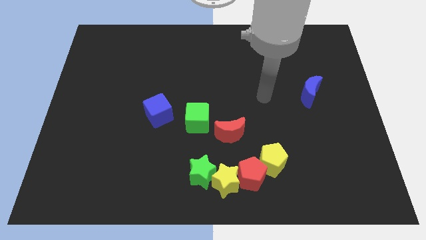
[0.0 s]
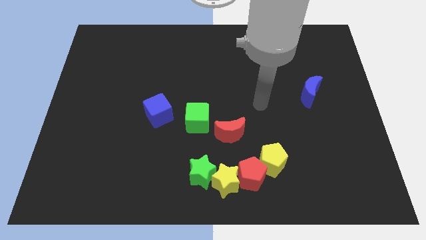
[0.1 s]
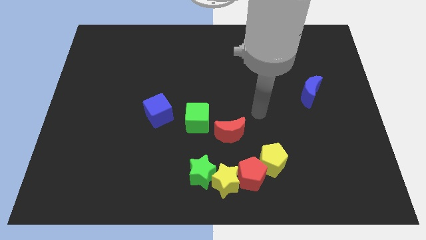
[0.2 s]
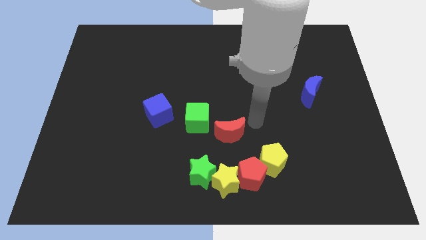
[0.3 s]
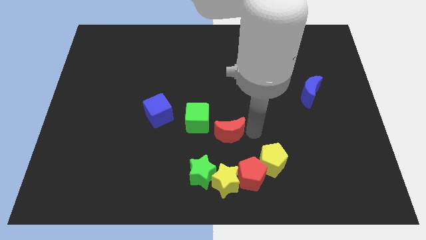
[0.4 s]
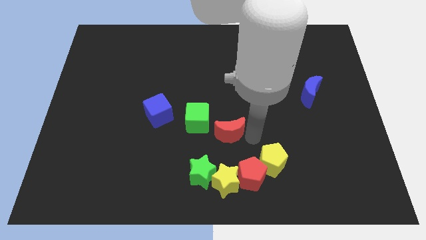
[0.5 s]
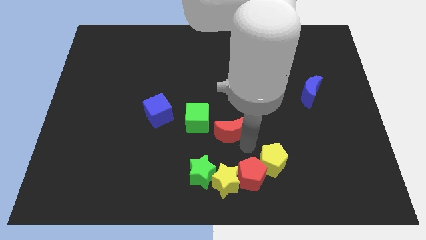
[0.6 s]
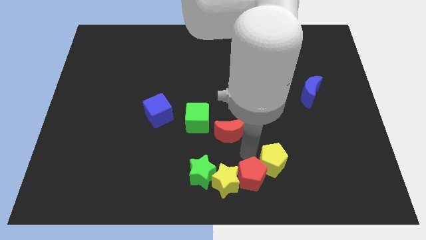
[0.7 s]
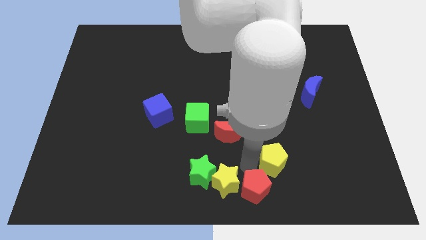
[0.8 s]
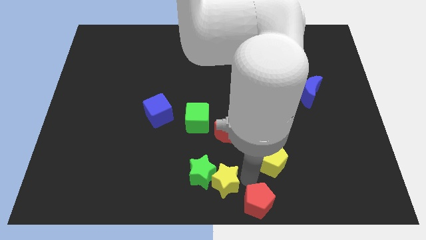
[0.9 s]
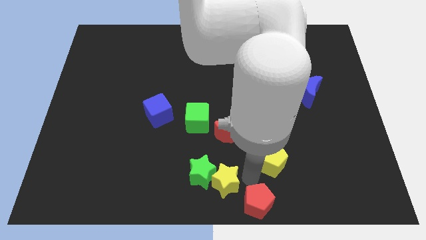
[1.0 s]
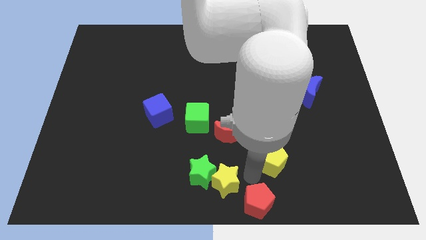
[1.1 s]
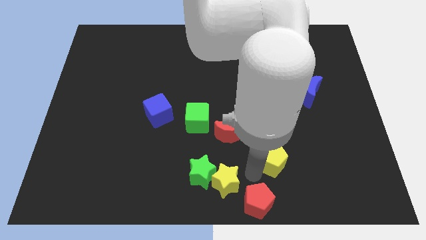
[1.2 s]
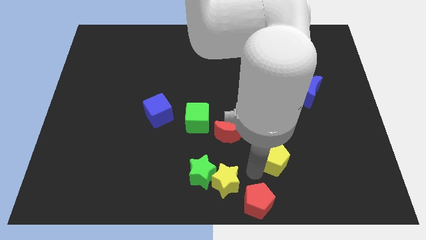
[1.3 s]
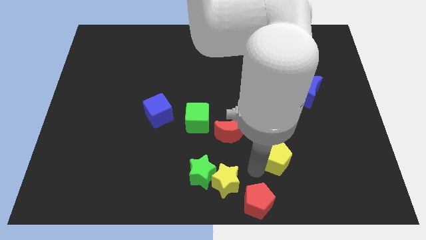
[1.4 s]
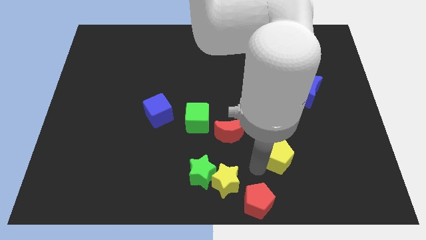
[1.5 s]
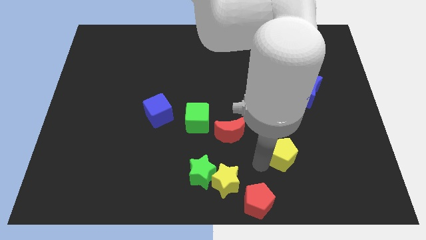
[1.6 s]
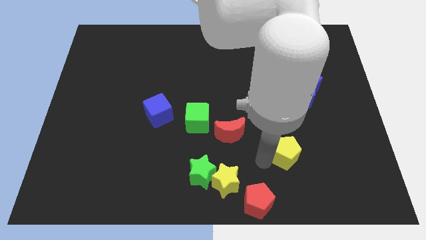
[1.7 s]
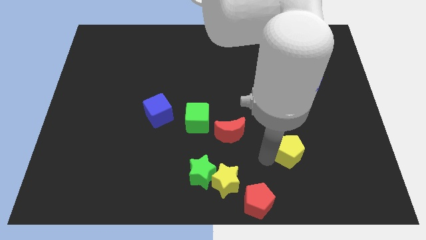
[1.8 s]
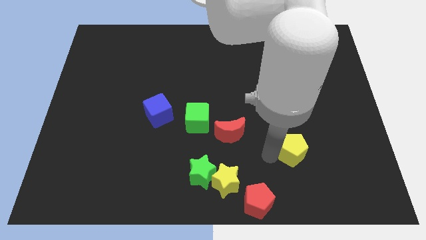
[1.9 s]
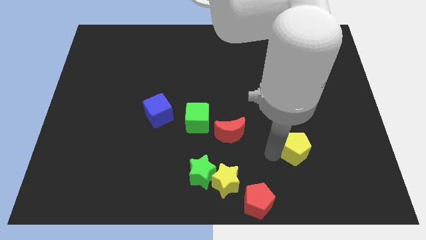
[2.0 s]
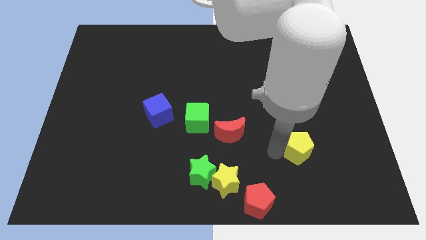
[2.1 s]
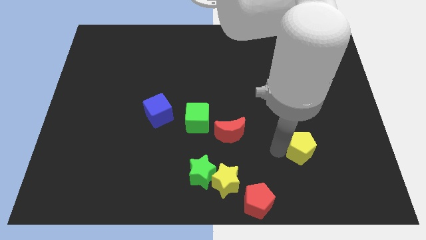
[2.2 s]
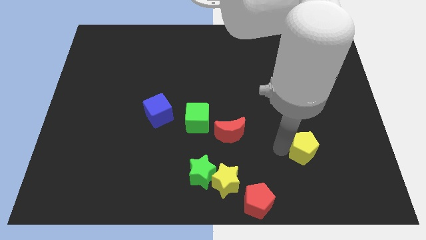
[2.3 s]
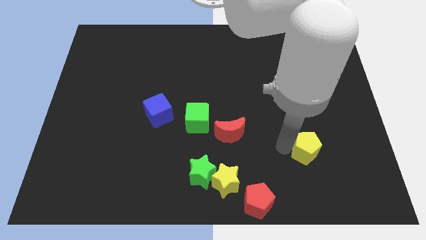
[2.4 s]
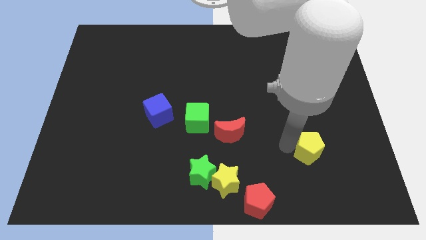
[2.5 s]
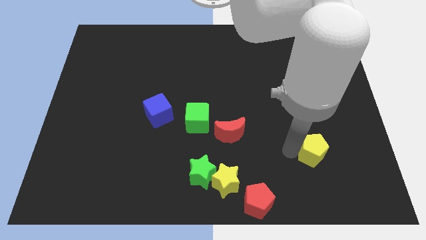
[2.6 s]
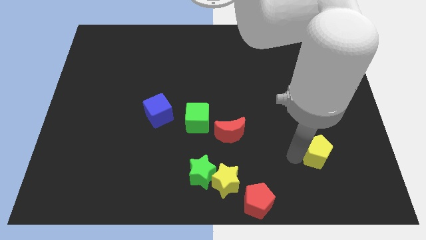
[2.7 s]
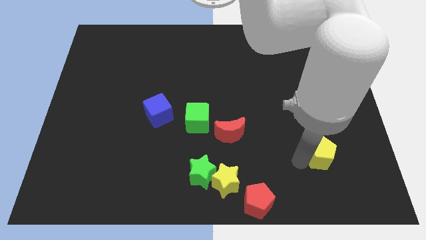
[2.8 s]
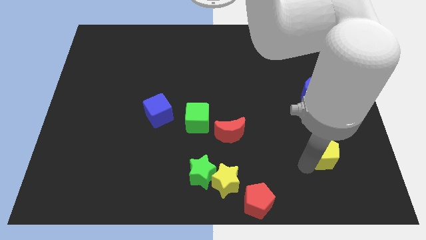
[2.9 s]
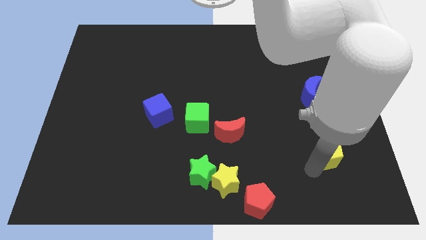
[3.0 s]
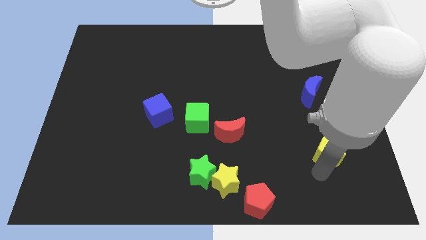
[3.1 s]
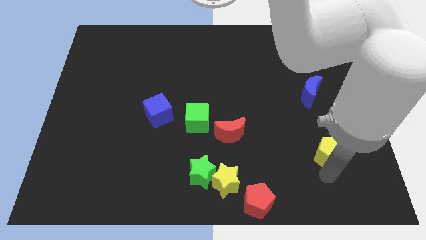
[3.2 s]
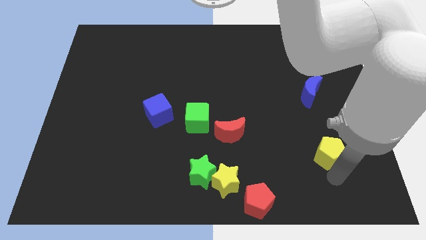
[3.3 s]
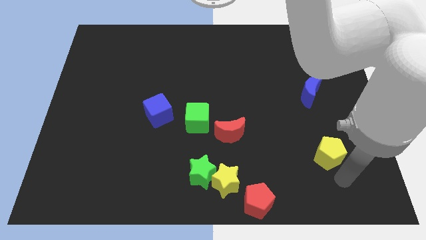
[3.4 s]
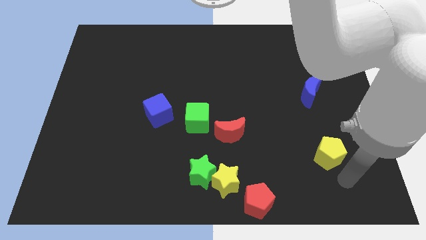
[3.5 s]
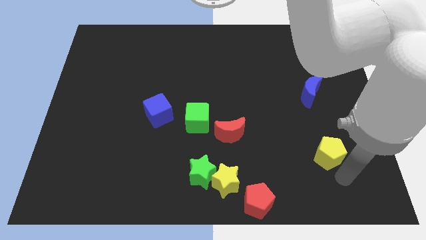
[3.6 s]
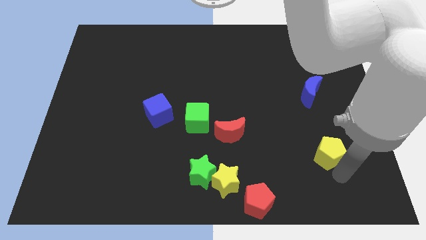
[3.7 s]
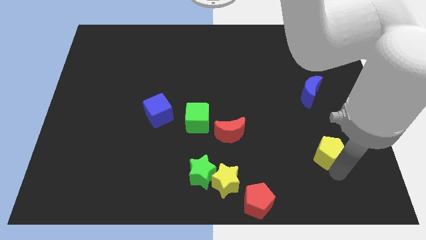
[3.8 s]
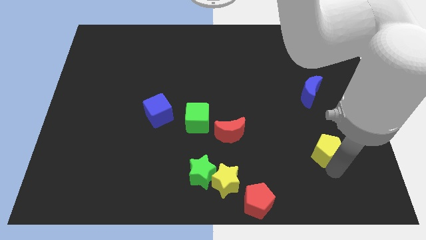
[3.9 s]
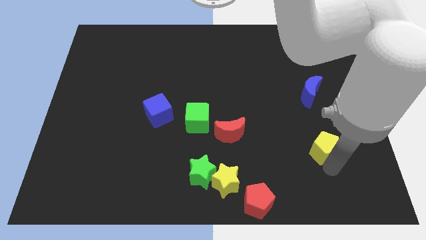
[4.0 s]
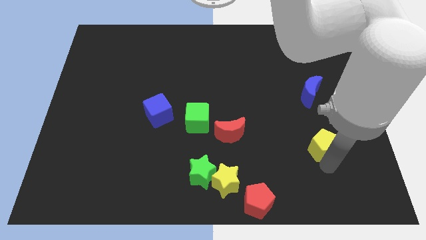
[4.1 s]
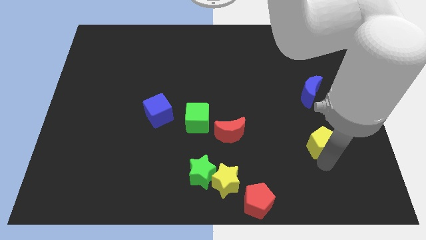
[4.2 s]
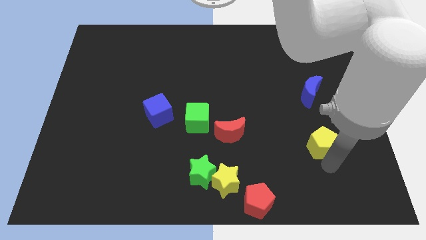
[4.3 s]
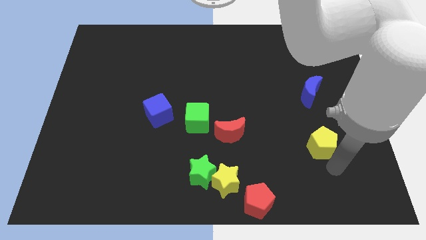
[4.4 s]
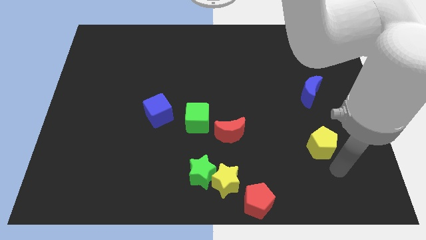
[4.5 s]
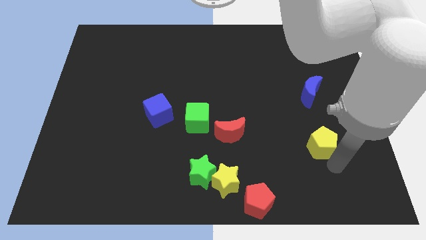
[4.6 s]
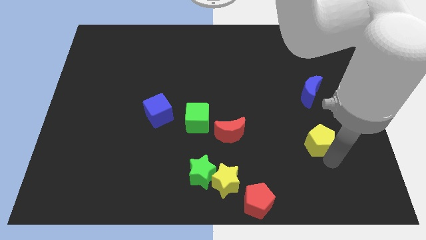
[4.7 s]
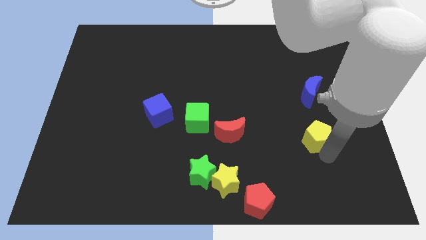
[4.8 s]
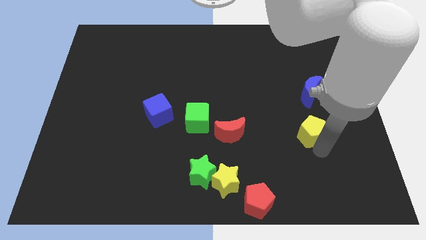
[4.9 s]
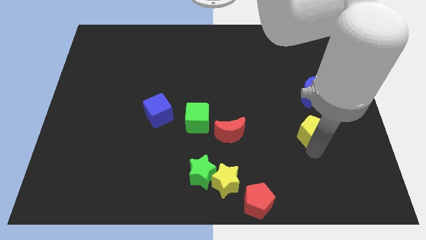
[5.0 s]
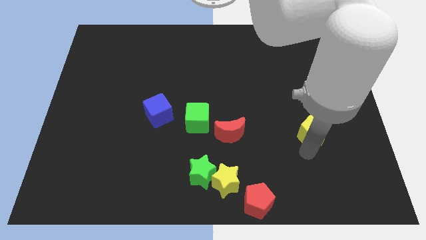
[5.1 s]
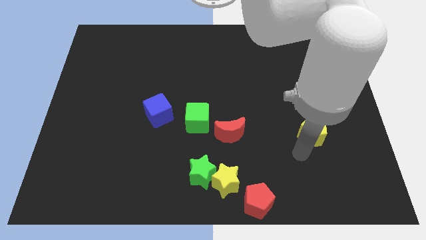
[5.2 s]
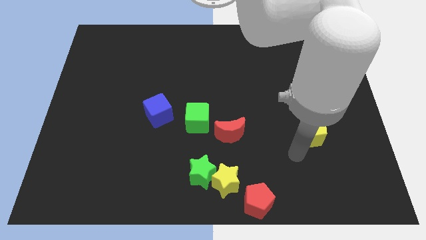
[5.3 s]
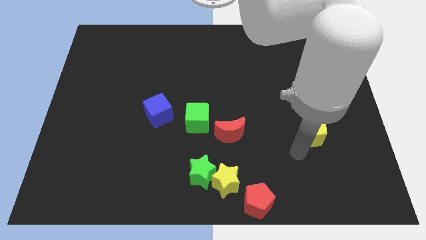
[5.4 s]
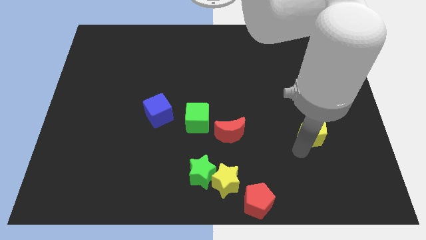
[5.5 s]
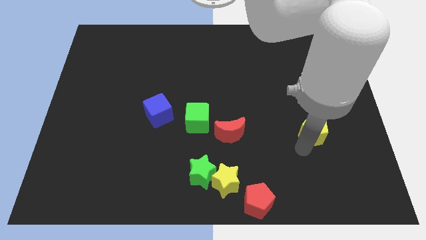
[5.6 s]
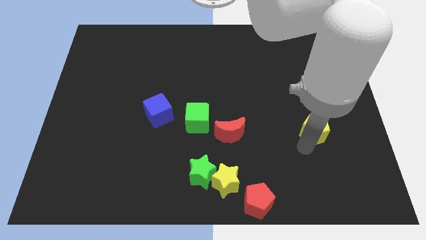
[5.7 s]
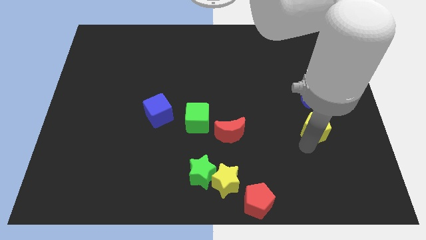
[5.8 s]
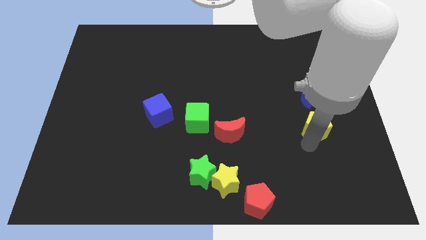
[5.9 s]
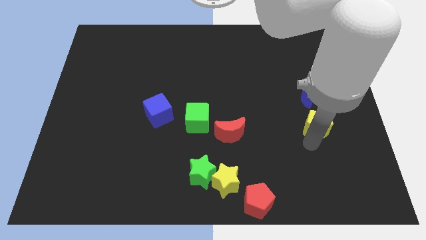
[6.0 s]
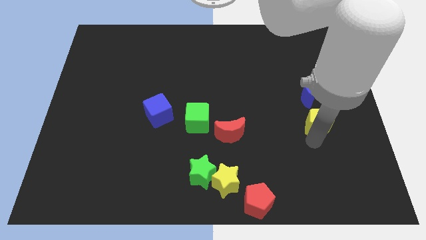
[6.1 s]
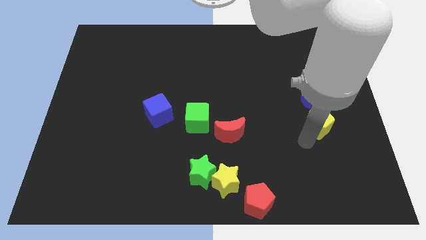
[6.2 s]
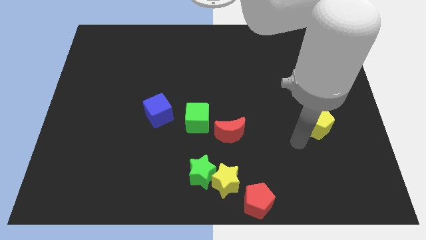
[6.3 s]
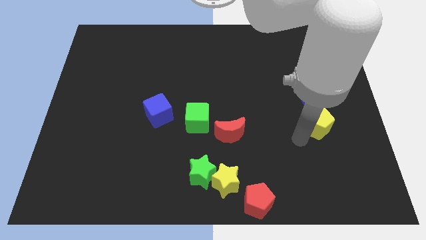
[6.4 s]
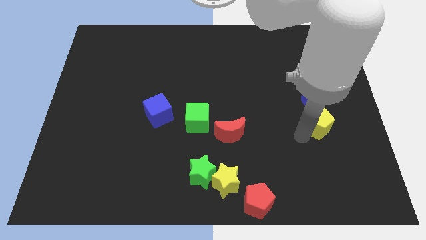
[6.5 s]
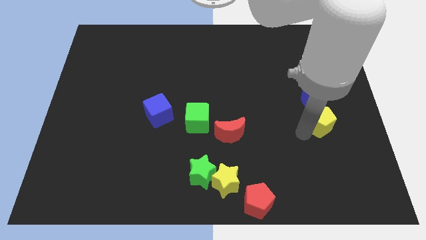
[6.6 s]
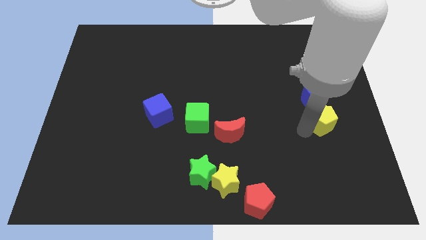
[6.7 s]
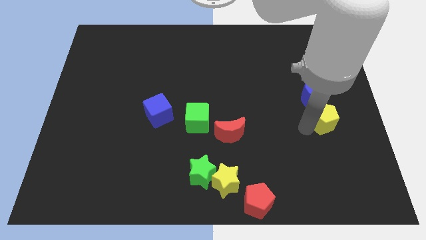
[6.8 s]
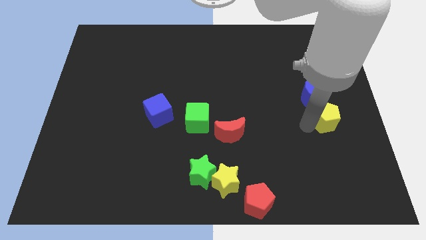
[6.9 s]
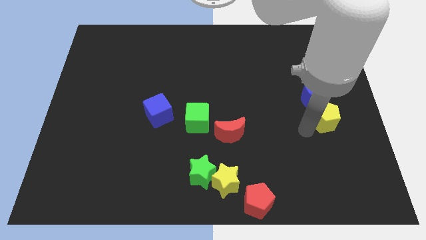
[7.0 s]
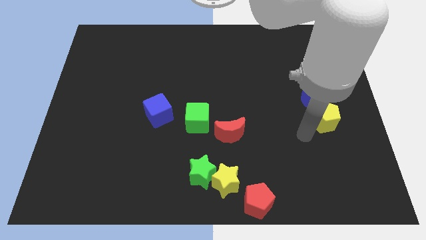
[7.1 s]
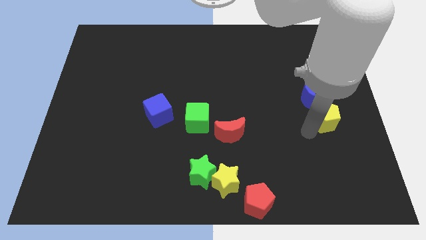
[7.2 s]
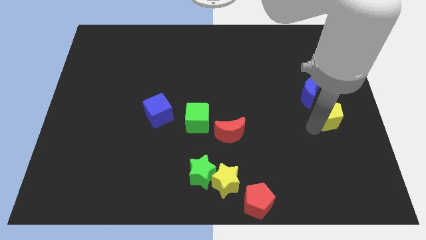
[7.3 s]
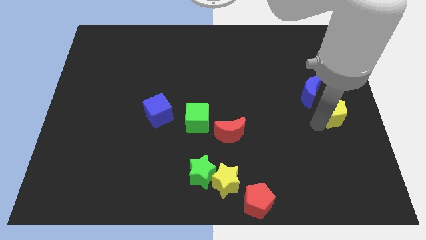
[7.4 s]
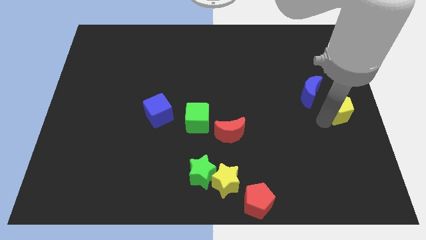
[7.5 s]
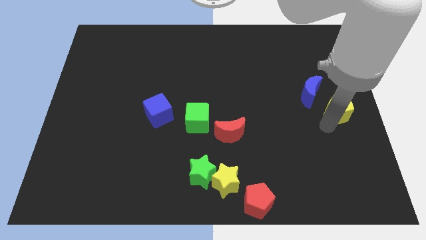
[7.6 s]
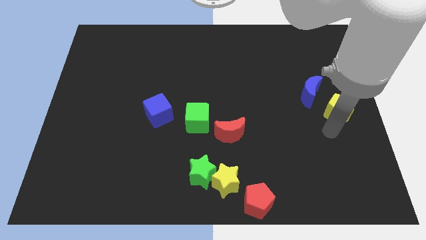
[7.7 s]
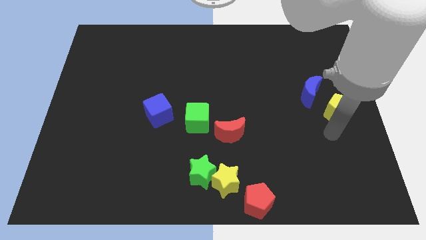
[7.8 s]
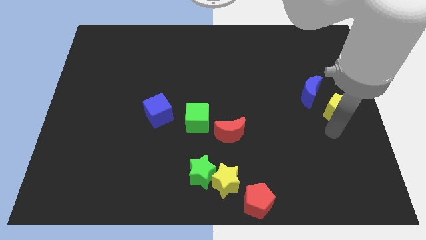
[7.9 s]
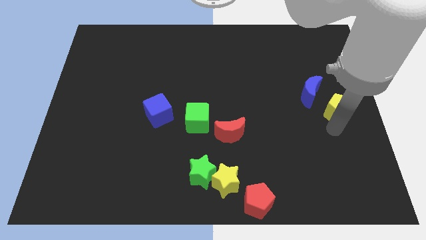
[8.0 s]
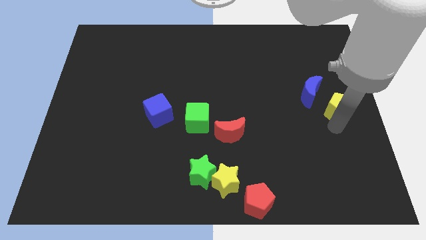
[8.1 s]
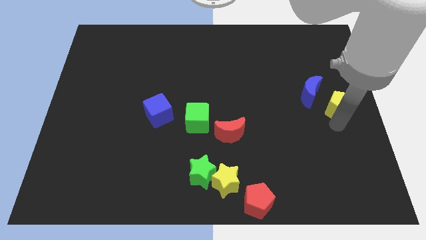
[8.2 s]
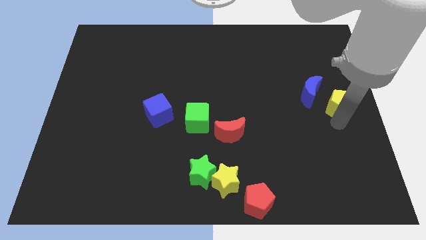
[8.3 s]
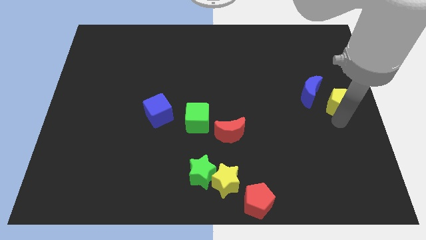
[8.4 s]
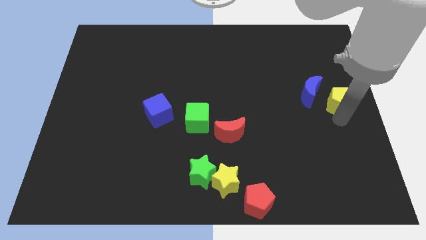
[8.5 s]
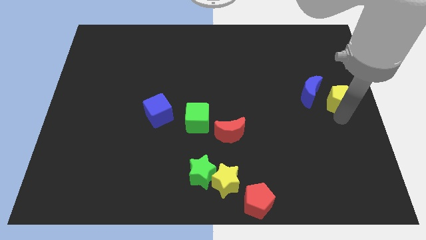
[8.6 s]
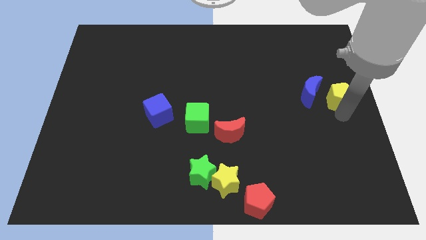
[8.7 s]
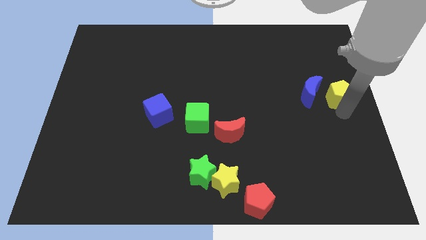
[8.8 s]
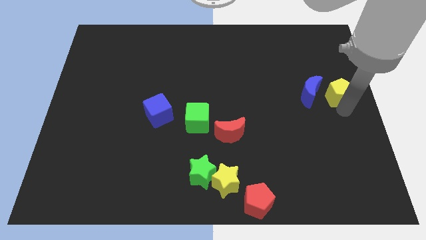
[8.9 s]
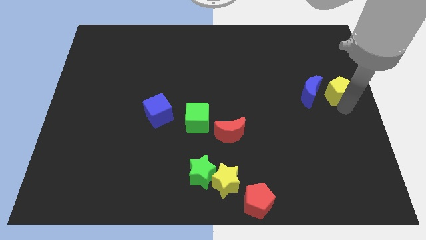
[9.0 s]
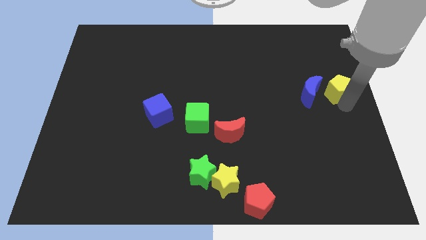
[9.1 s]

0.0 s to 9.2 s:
slide the yellow pentagon diagonally up and to the right of the blue moon
